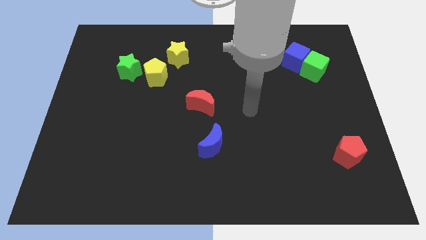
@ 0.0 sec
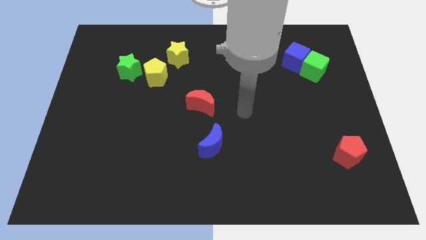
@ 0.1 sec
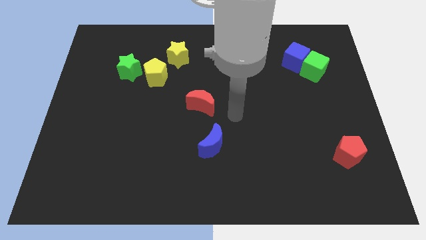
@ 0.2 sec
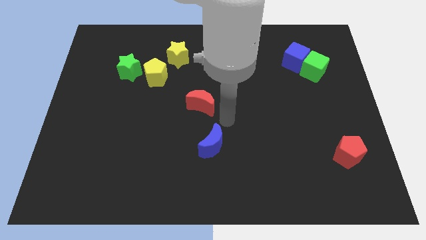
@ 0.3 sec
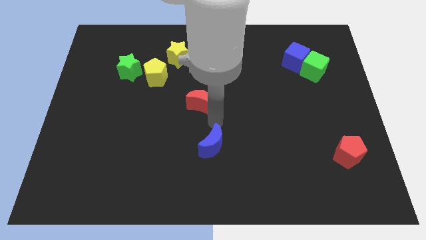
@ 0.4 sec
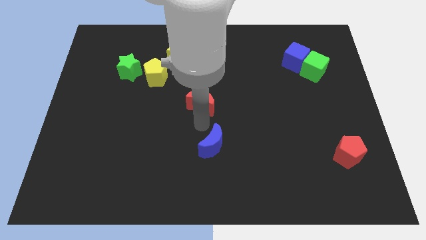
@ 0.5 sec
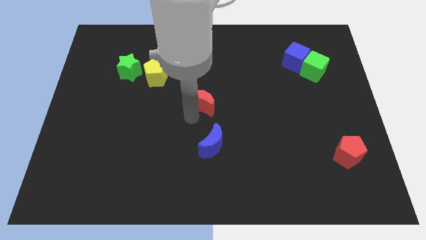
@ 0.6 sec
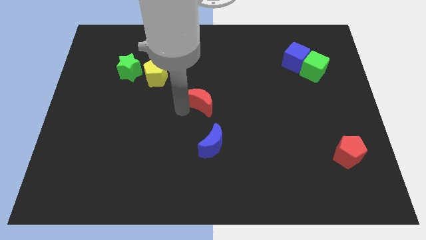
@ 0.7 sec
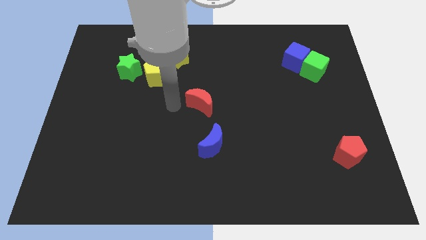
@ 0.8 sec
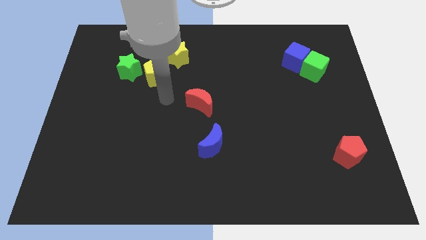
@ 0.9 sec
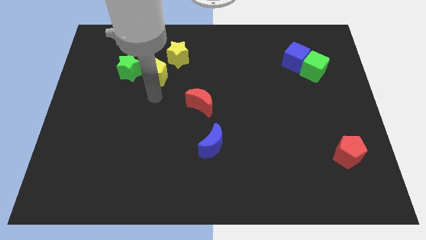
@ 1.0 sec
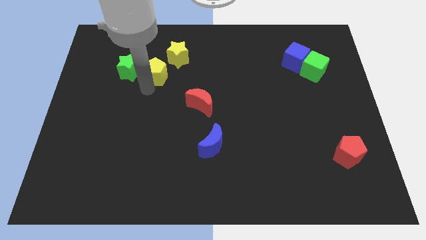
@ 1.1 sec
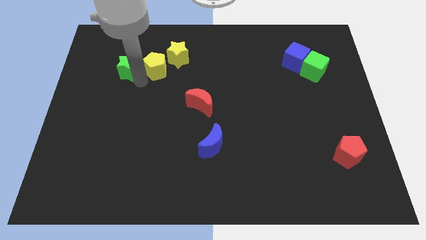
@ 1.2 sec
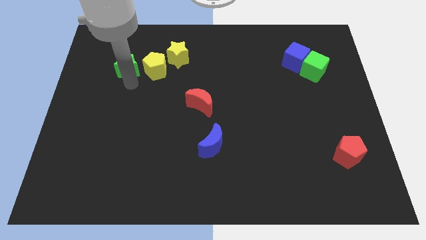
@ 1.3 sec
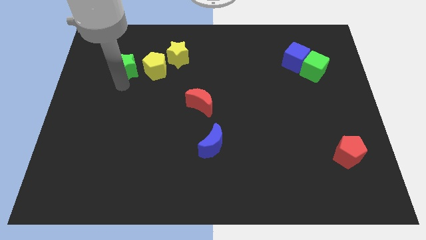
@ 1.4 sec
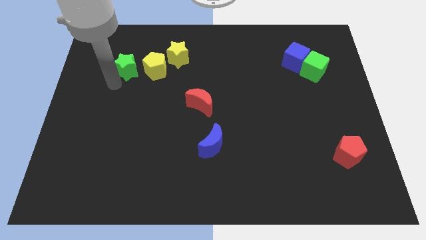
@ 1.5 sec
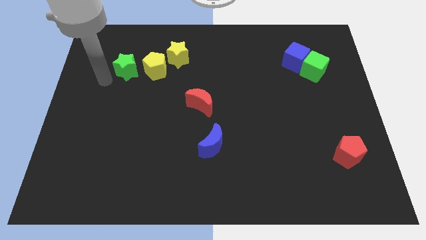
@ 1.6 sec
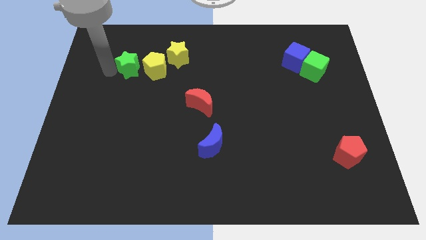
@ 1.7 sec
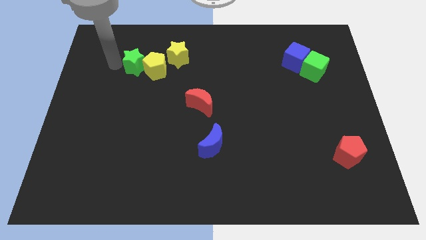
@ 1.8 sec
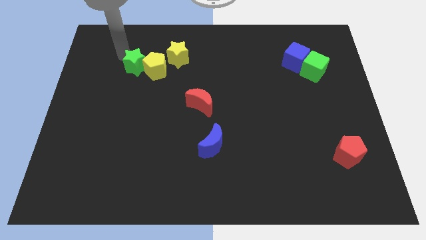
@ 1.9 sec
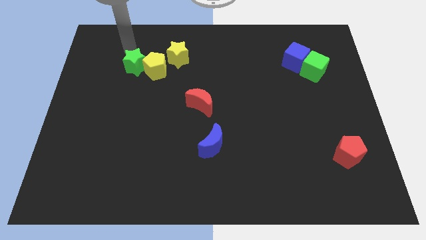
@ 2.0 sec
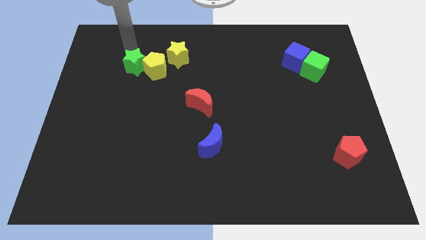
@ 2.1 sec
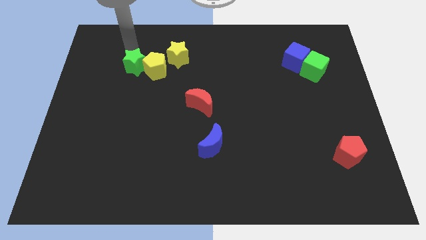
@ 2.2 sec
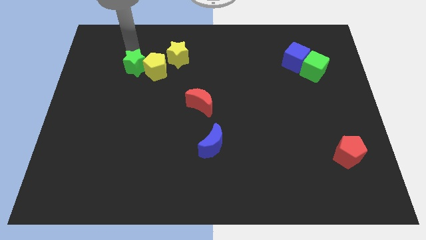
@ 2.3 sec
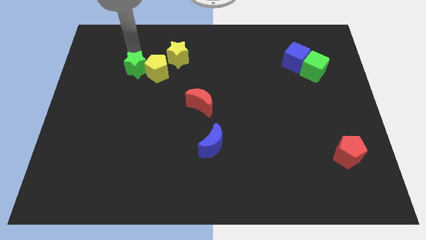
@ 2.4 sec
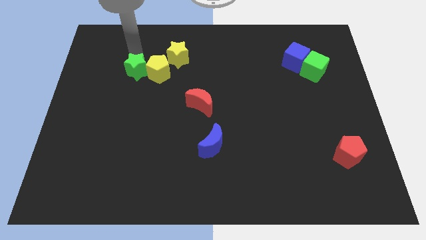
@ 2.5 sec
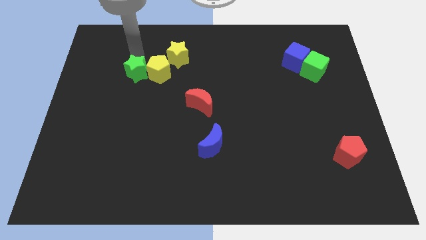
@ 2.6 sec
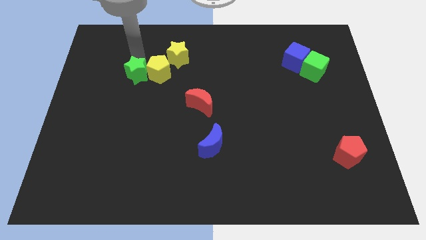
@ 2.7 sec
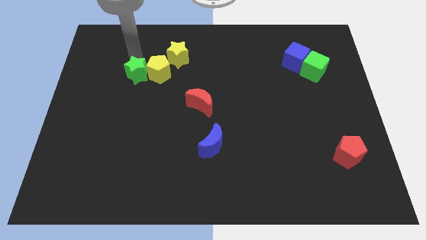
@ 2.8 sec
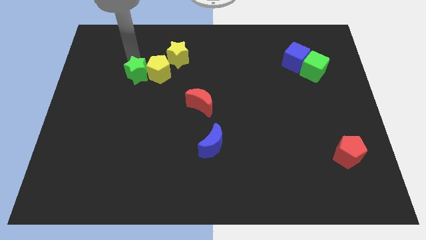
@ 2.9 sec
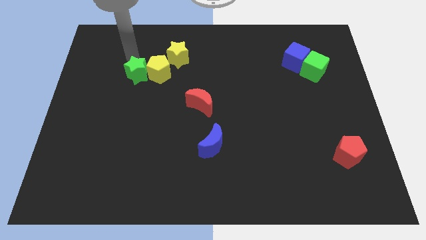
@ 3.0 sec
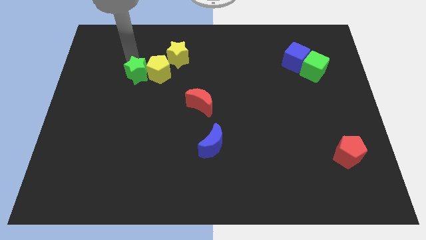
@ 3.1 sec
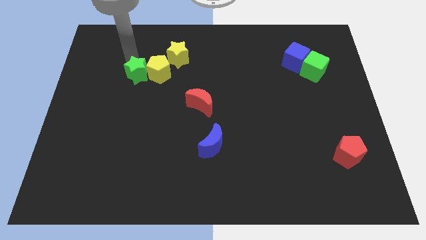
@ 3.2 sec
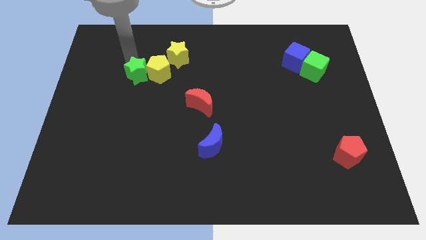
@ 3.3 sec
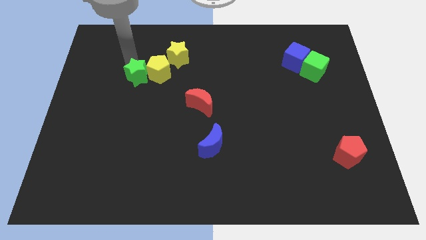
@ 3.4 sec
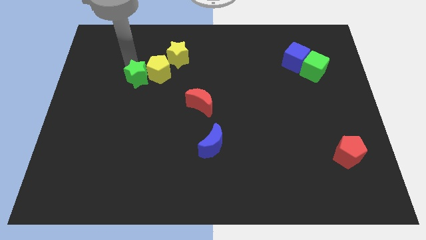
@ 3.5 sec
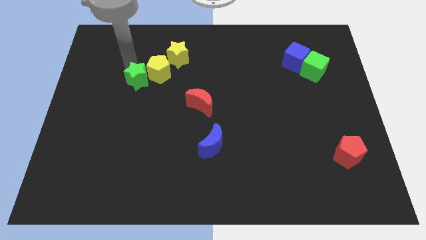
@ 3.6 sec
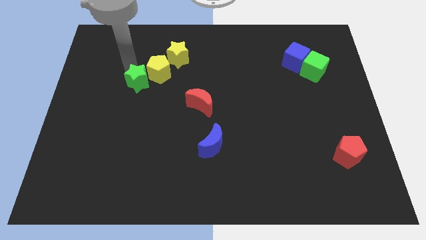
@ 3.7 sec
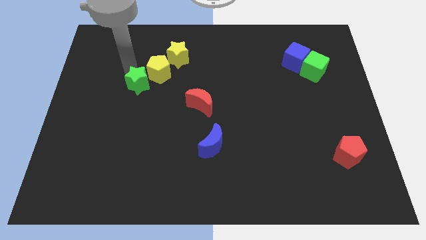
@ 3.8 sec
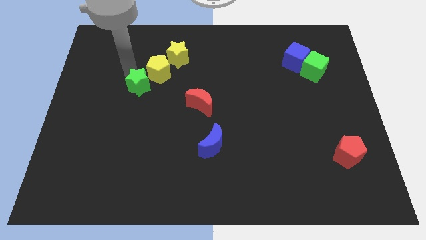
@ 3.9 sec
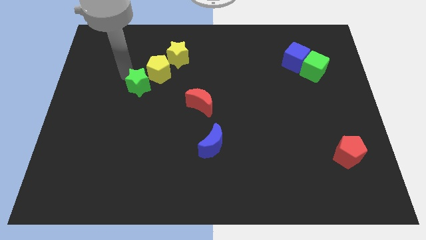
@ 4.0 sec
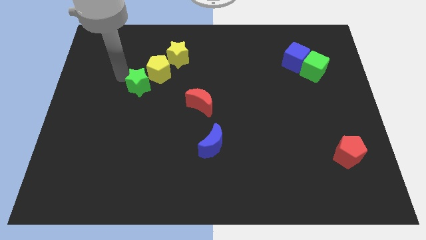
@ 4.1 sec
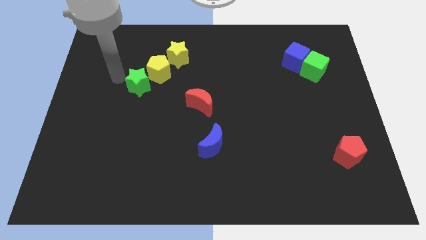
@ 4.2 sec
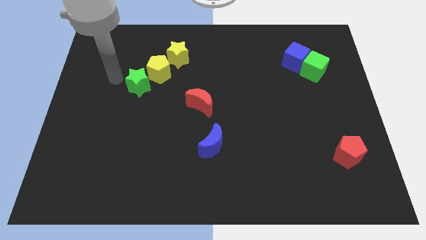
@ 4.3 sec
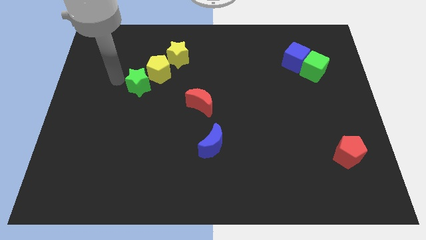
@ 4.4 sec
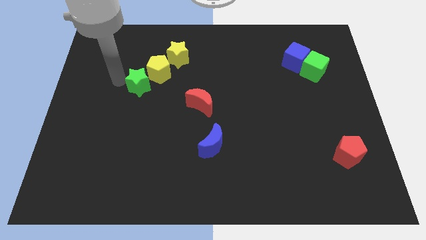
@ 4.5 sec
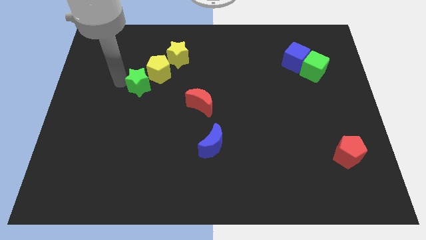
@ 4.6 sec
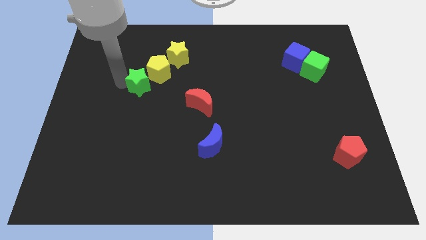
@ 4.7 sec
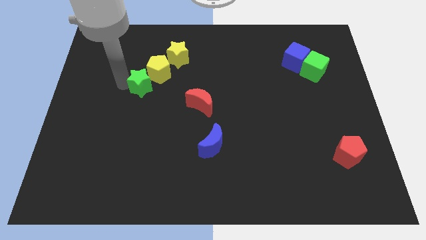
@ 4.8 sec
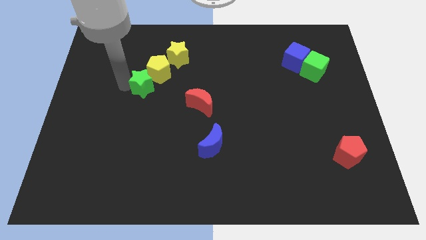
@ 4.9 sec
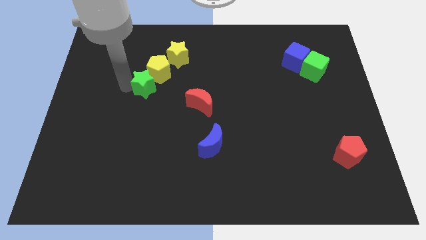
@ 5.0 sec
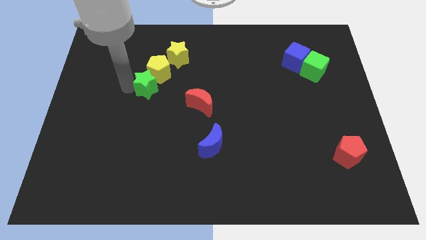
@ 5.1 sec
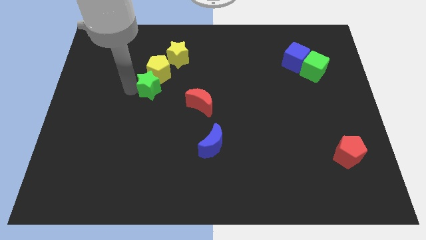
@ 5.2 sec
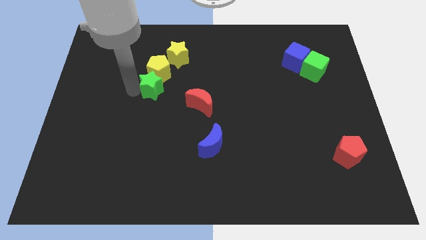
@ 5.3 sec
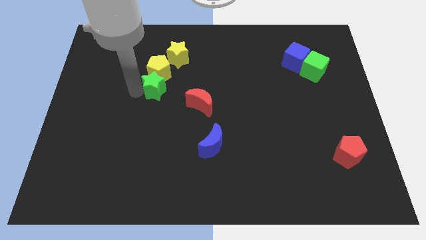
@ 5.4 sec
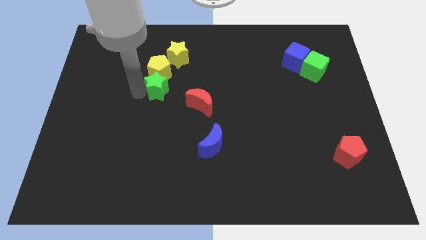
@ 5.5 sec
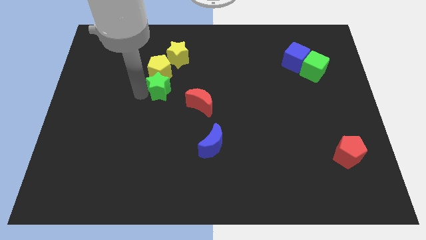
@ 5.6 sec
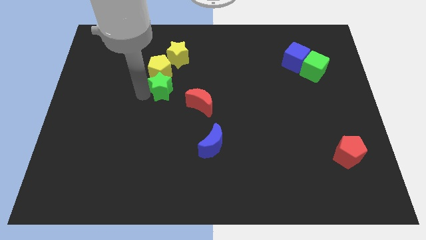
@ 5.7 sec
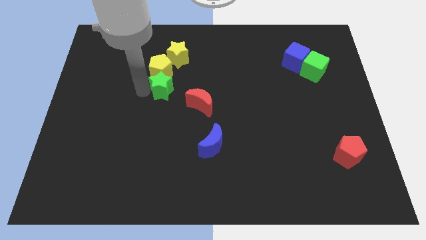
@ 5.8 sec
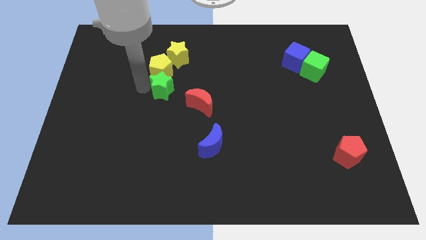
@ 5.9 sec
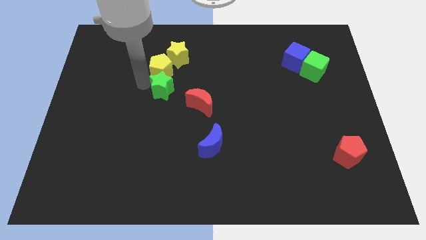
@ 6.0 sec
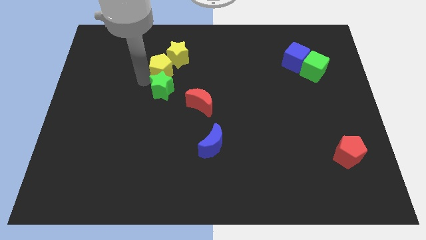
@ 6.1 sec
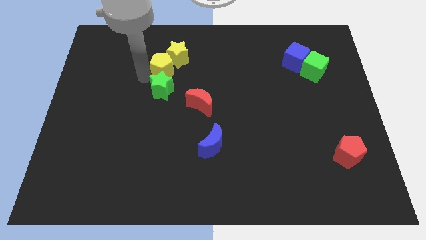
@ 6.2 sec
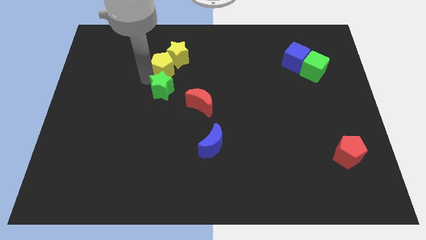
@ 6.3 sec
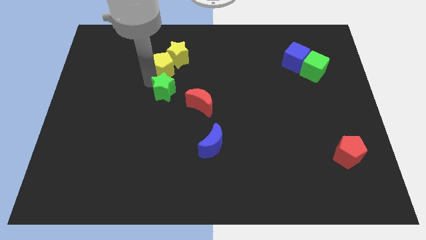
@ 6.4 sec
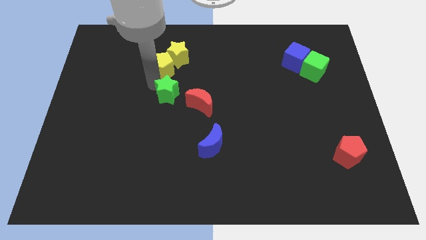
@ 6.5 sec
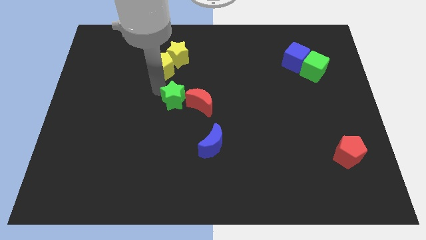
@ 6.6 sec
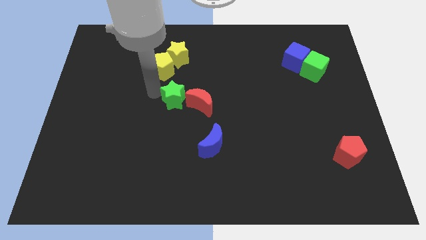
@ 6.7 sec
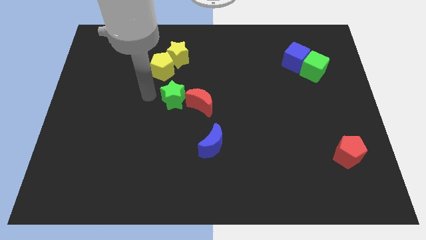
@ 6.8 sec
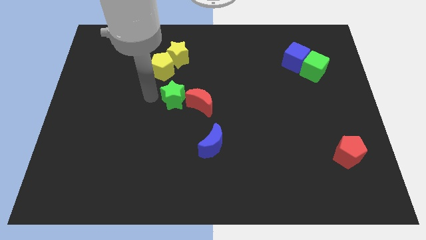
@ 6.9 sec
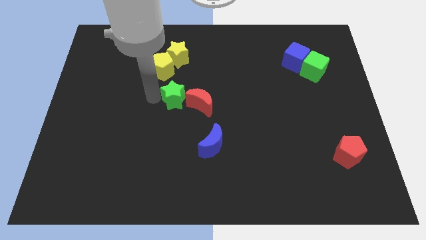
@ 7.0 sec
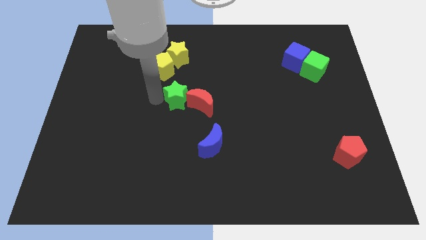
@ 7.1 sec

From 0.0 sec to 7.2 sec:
push the green star next to the red moon
